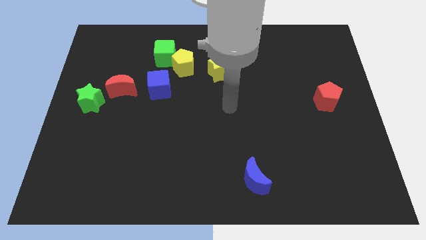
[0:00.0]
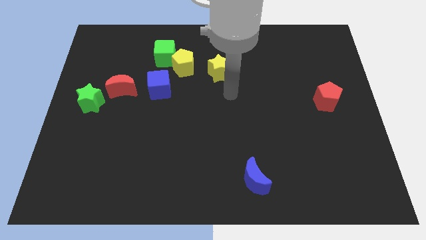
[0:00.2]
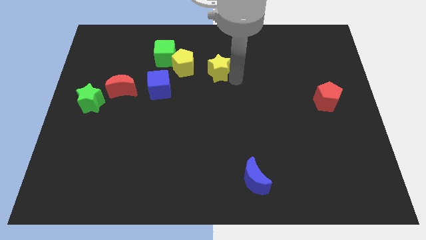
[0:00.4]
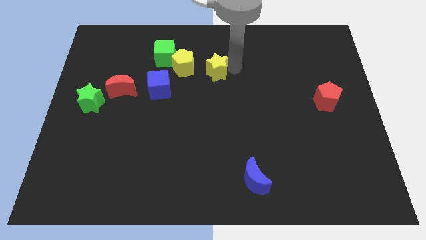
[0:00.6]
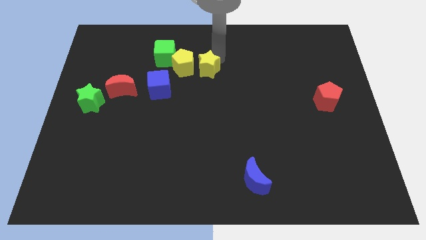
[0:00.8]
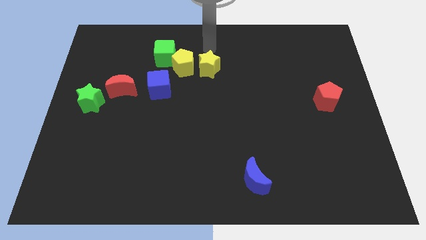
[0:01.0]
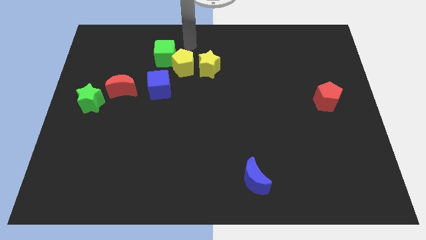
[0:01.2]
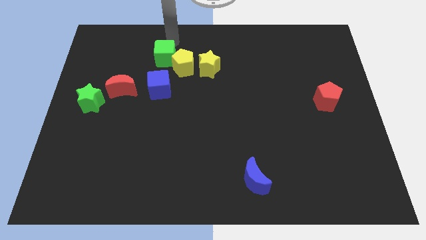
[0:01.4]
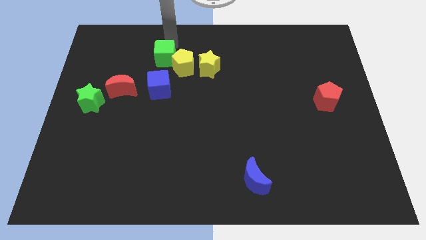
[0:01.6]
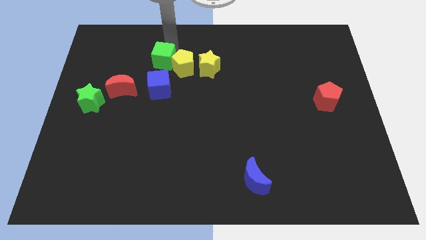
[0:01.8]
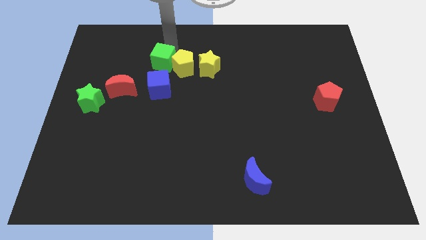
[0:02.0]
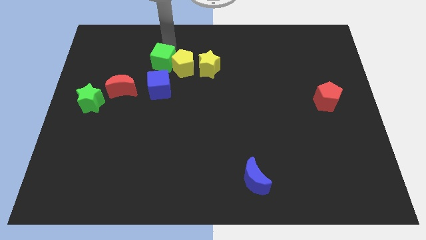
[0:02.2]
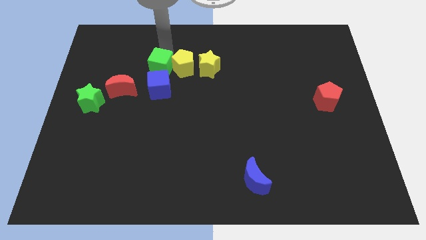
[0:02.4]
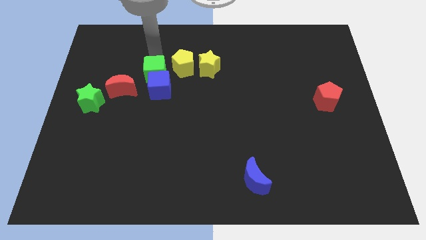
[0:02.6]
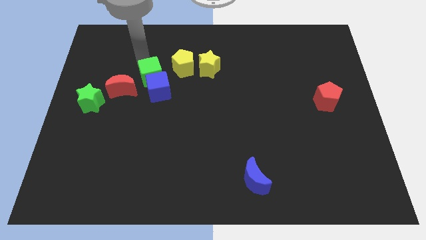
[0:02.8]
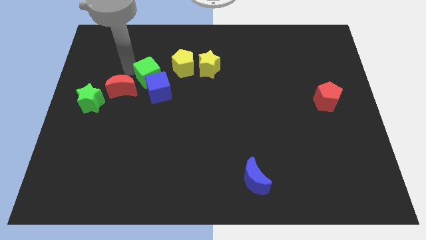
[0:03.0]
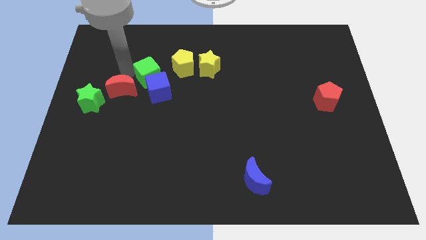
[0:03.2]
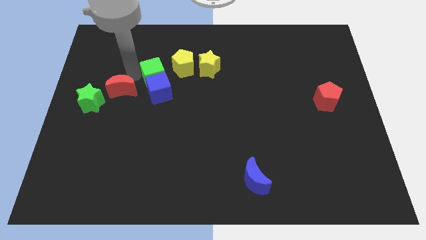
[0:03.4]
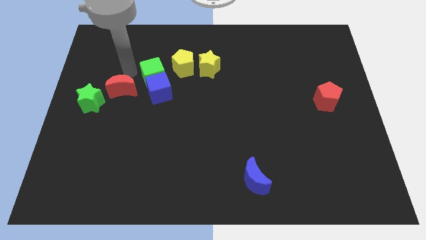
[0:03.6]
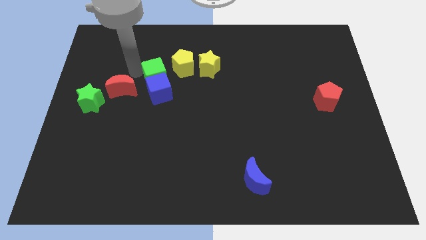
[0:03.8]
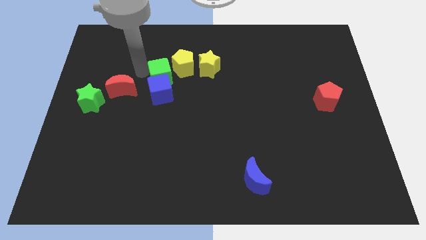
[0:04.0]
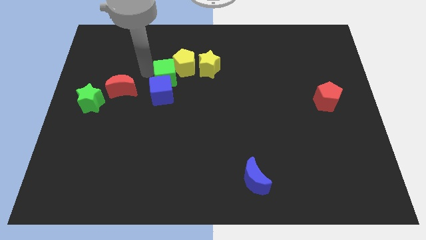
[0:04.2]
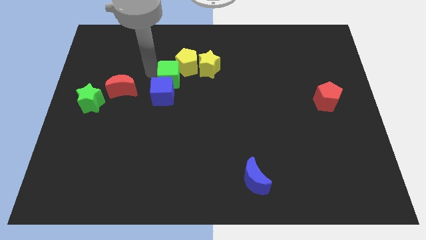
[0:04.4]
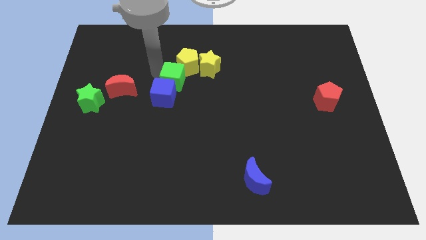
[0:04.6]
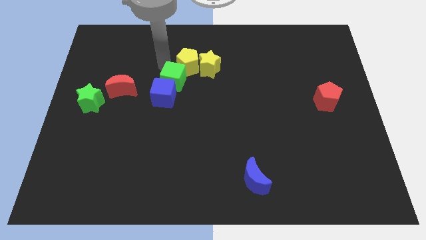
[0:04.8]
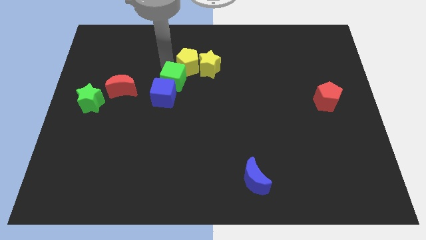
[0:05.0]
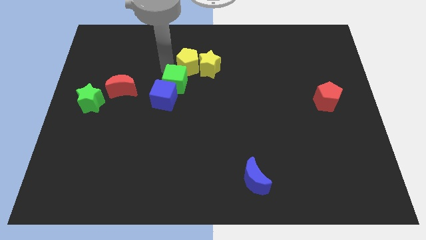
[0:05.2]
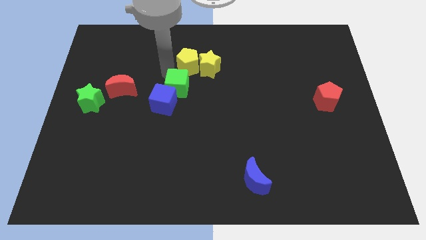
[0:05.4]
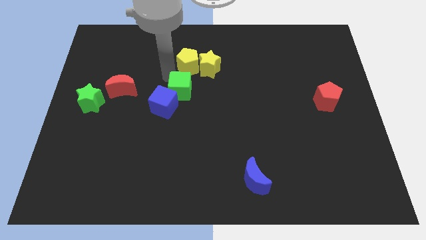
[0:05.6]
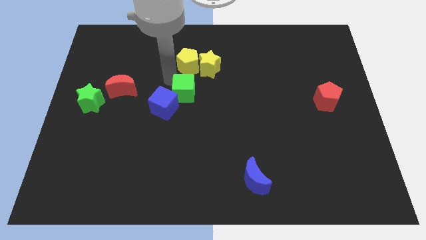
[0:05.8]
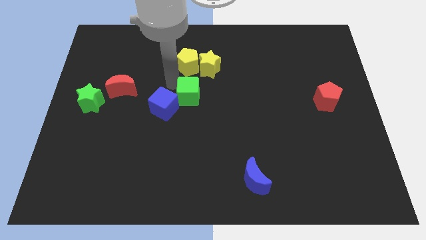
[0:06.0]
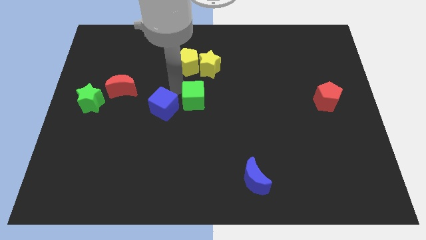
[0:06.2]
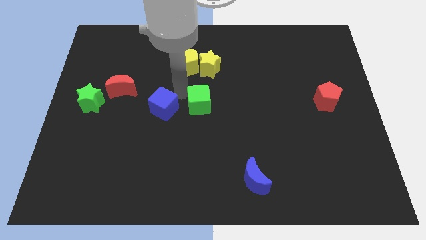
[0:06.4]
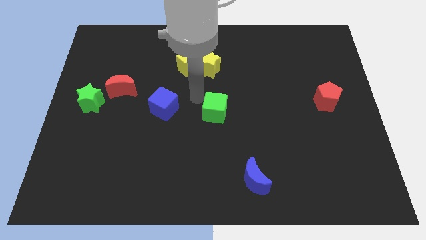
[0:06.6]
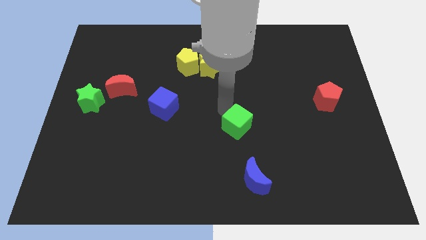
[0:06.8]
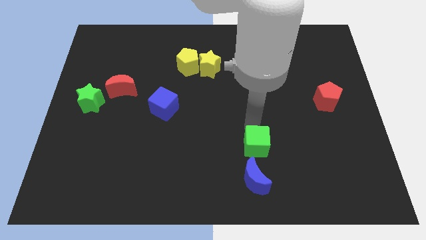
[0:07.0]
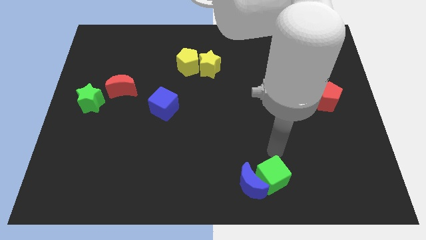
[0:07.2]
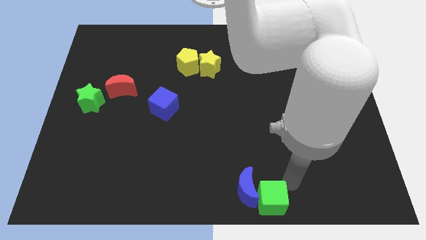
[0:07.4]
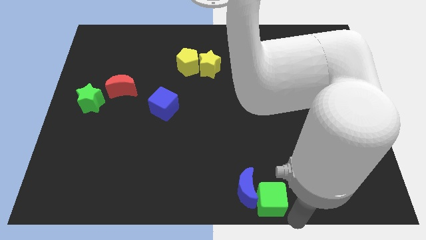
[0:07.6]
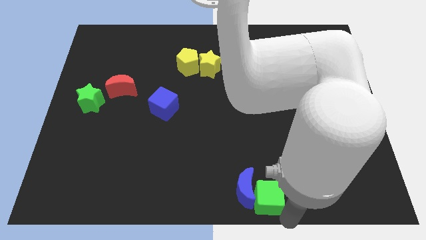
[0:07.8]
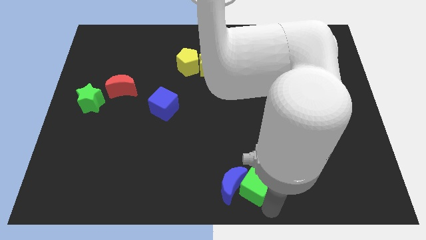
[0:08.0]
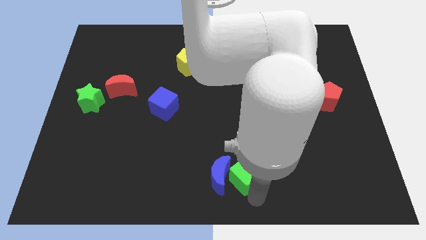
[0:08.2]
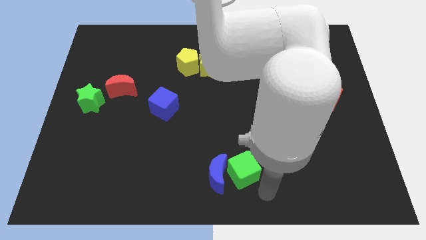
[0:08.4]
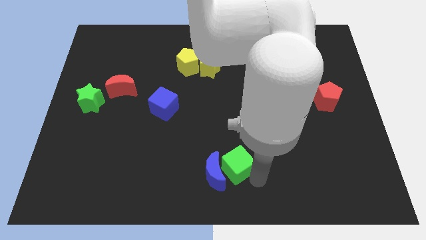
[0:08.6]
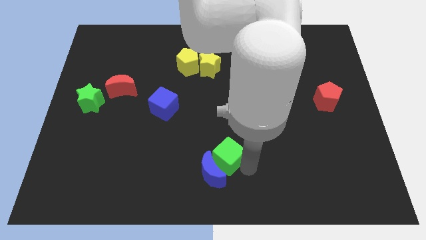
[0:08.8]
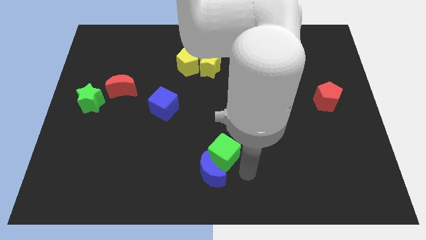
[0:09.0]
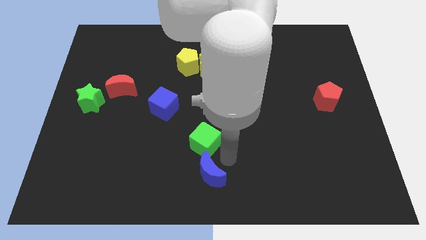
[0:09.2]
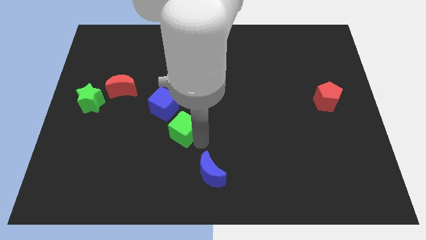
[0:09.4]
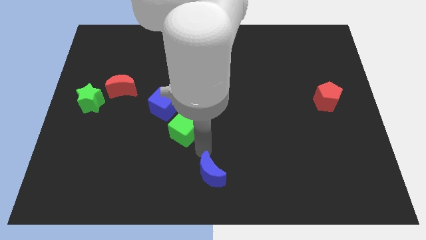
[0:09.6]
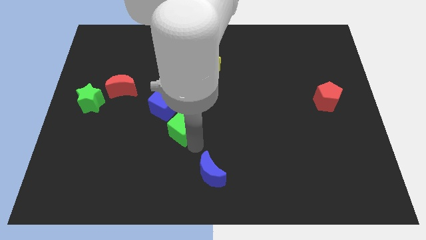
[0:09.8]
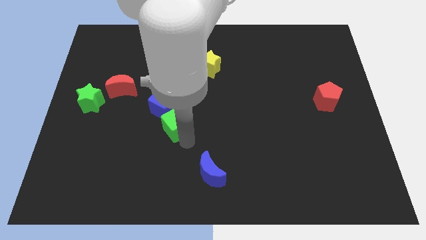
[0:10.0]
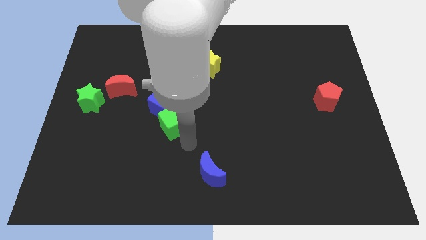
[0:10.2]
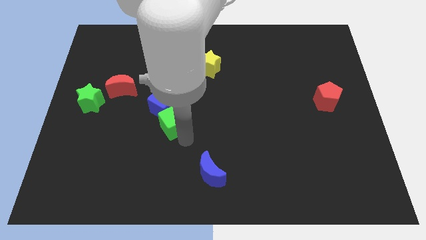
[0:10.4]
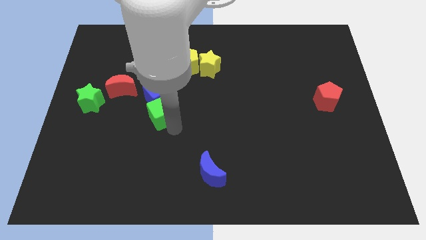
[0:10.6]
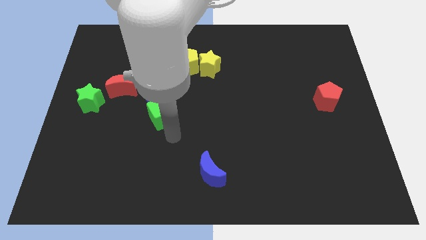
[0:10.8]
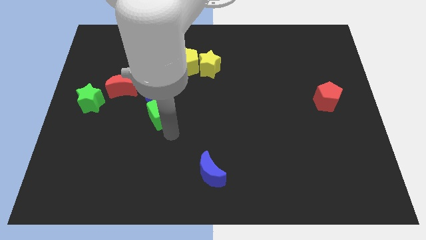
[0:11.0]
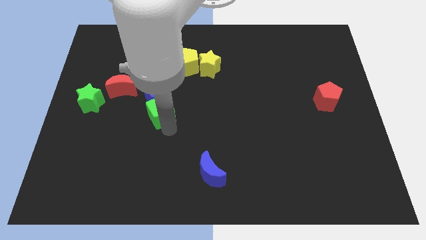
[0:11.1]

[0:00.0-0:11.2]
slide the green cube diagonally down and to the right of the red moon

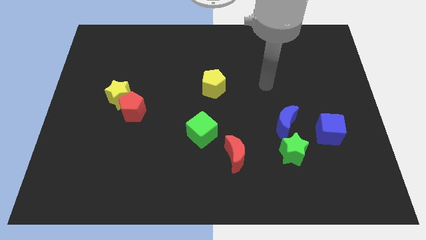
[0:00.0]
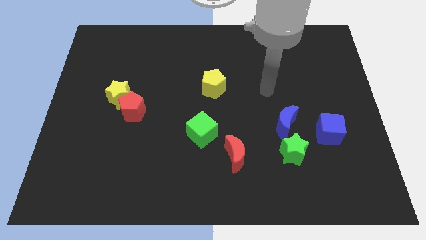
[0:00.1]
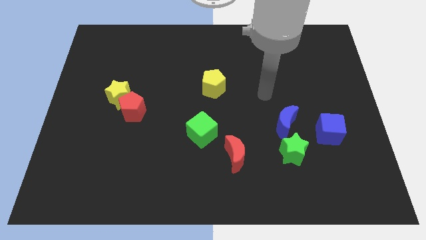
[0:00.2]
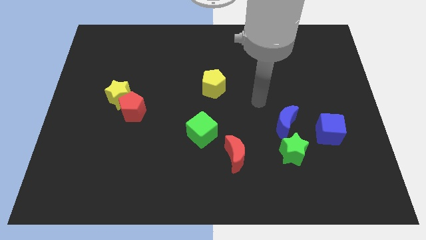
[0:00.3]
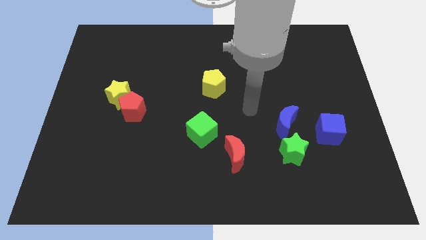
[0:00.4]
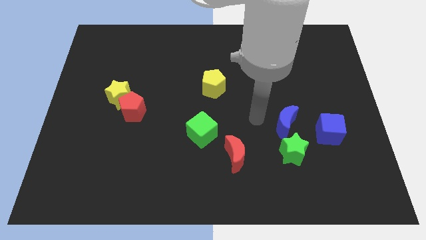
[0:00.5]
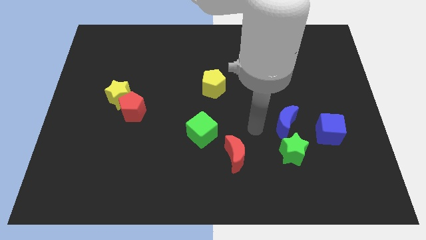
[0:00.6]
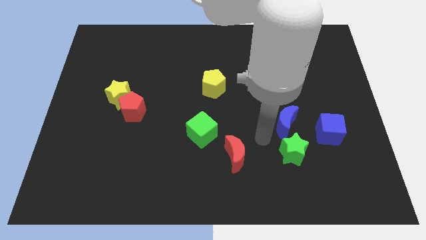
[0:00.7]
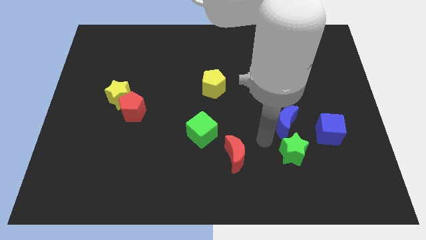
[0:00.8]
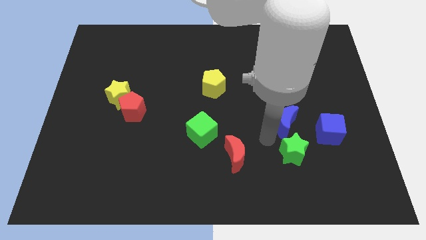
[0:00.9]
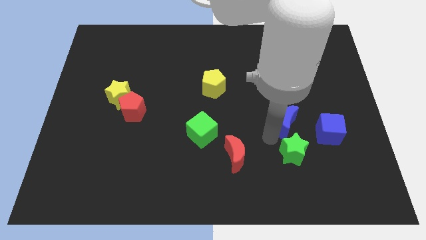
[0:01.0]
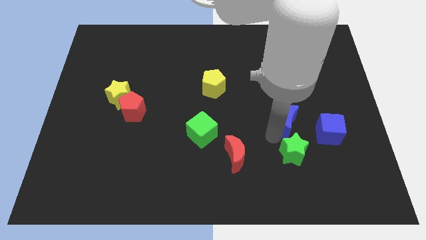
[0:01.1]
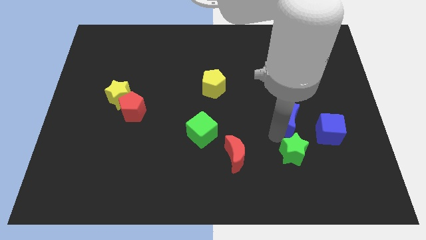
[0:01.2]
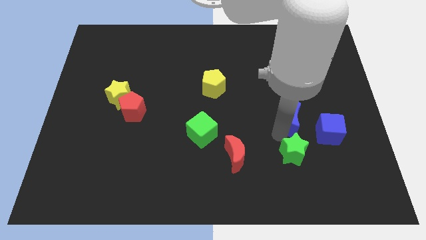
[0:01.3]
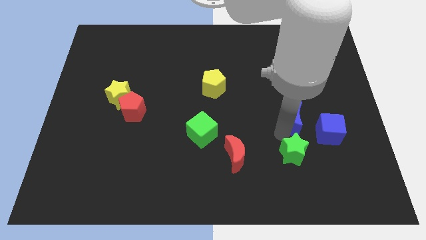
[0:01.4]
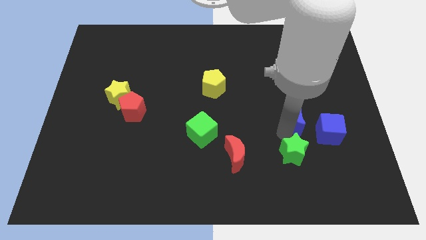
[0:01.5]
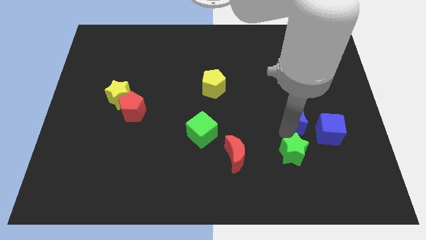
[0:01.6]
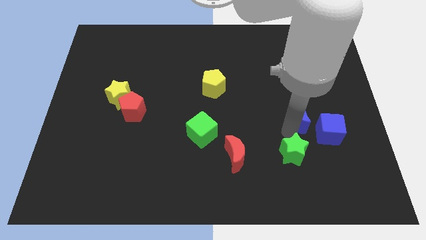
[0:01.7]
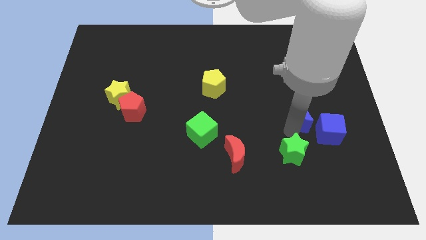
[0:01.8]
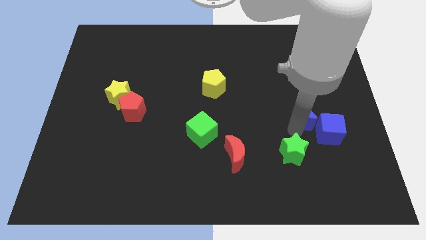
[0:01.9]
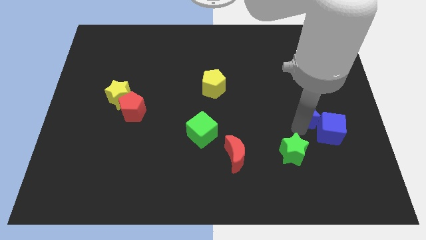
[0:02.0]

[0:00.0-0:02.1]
move the blue moon above the blue cube
